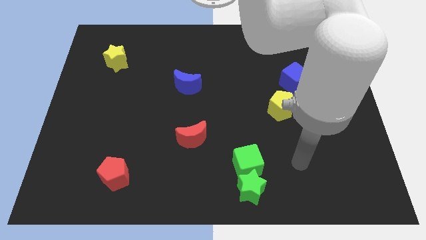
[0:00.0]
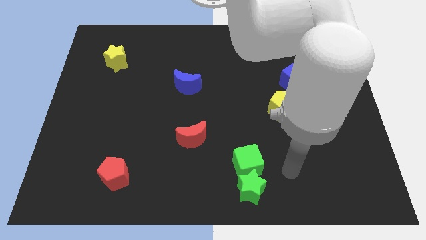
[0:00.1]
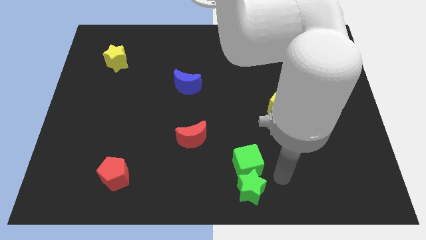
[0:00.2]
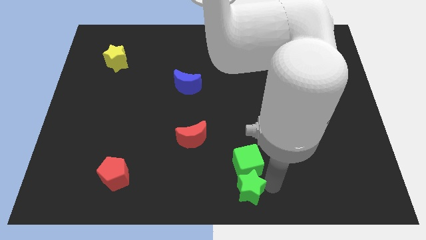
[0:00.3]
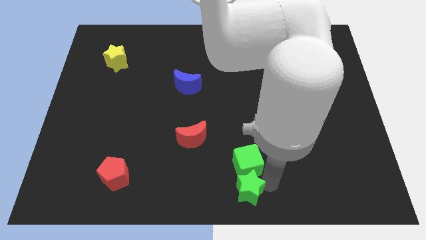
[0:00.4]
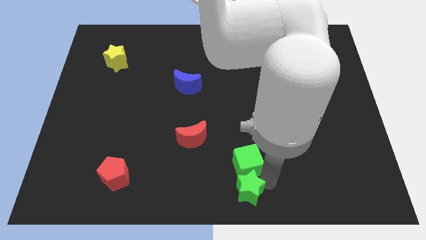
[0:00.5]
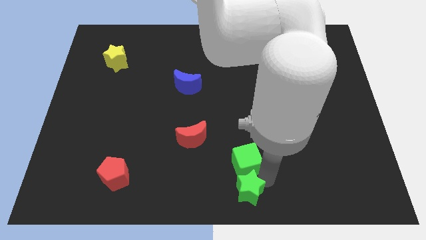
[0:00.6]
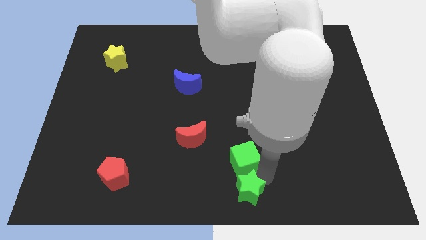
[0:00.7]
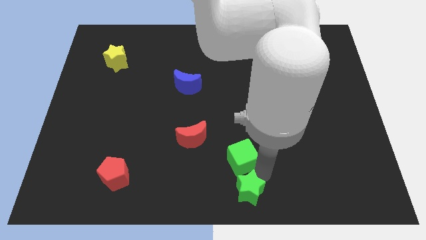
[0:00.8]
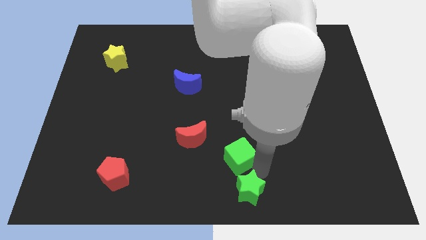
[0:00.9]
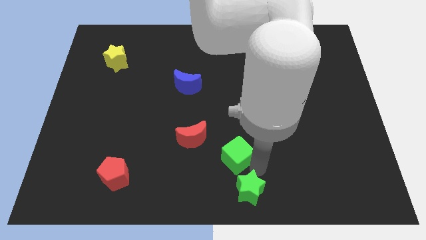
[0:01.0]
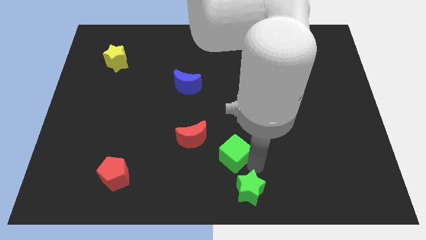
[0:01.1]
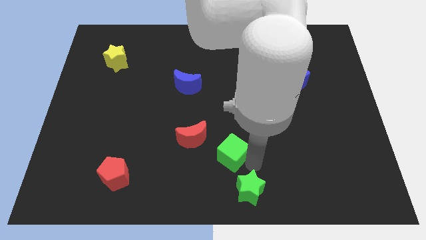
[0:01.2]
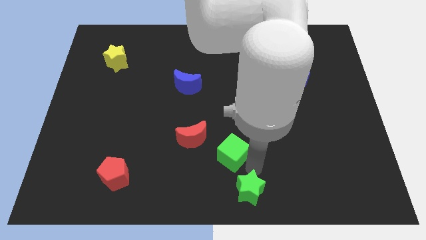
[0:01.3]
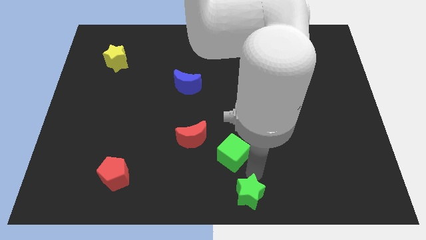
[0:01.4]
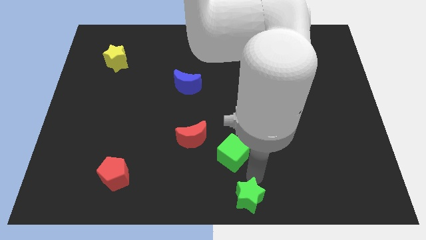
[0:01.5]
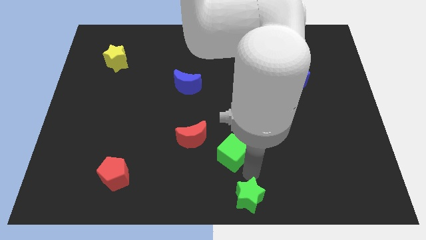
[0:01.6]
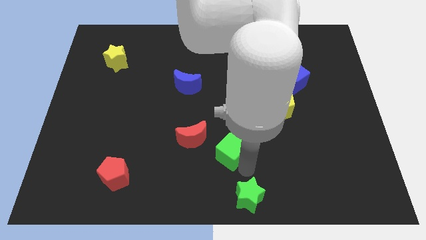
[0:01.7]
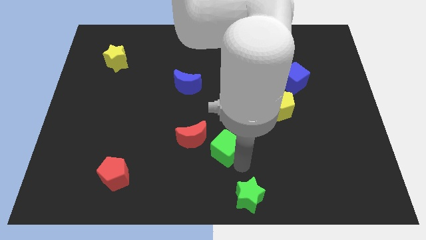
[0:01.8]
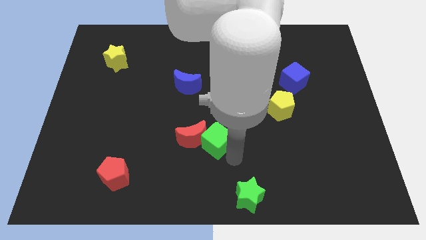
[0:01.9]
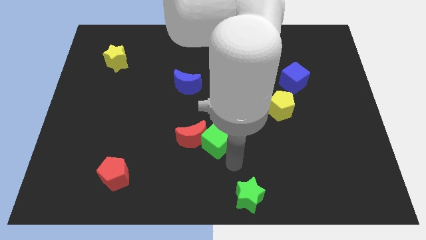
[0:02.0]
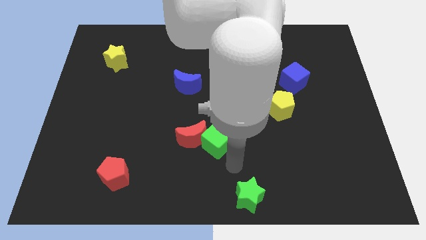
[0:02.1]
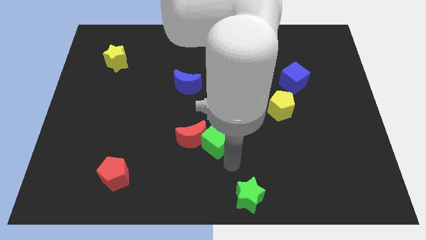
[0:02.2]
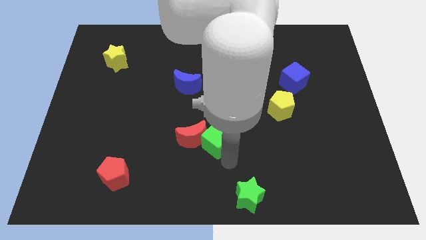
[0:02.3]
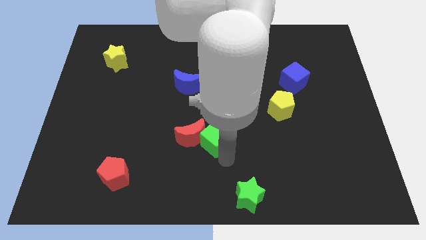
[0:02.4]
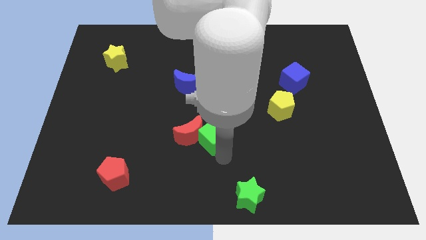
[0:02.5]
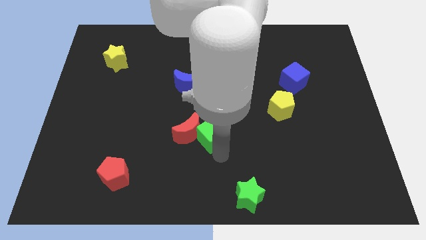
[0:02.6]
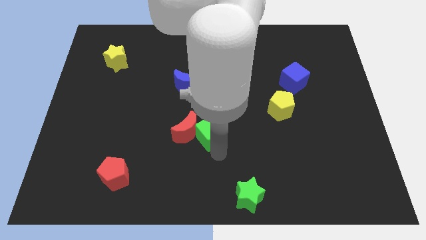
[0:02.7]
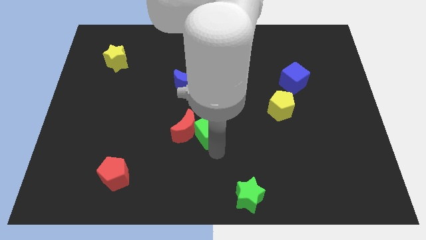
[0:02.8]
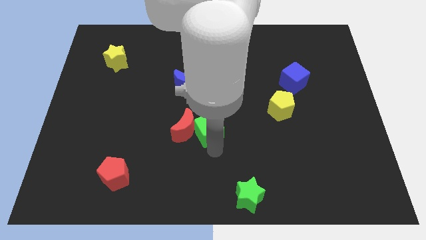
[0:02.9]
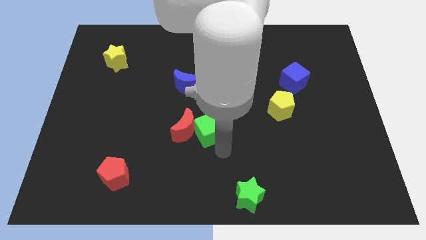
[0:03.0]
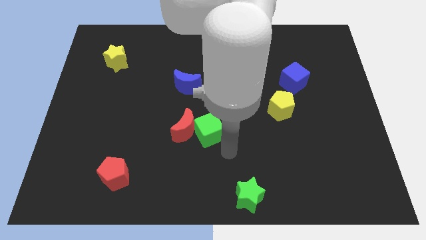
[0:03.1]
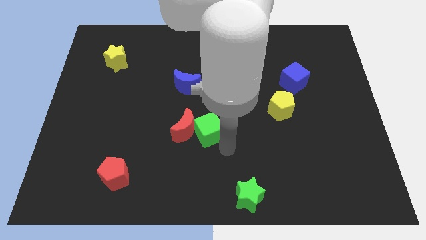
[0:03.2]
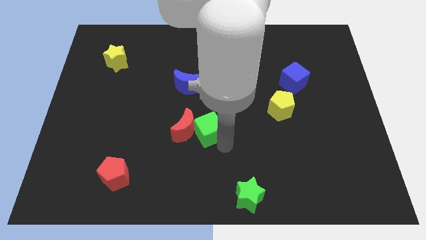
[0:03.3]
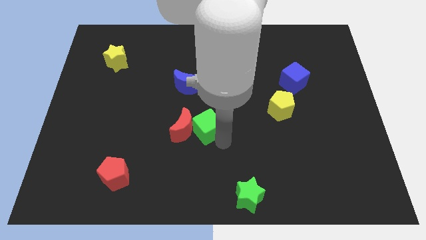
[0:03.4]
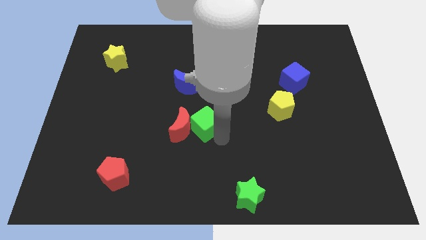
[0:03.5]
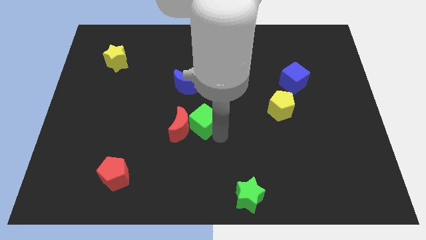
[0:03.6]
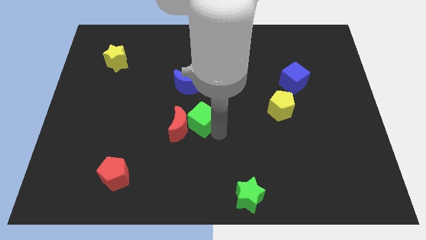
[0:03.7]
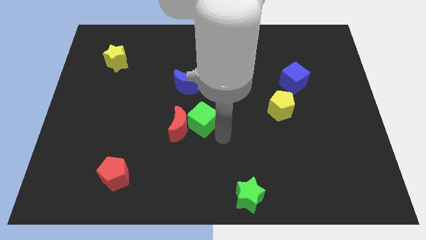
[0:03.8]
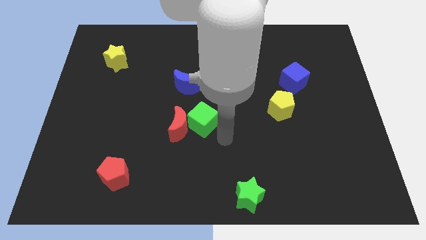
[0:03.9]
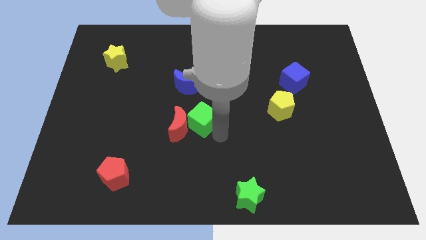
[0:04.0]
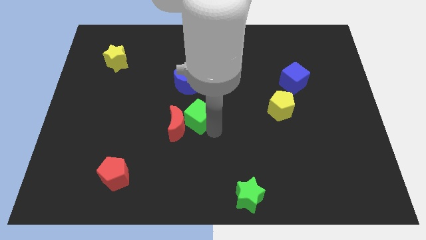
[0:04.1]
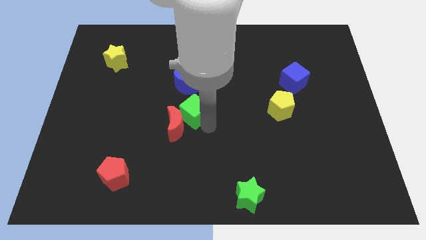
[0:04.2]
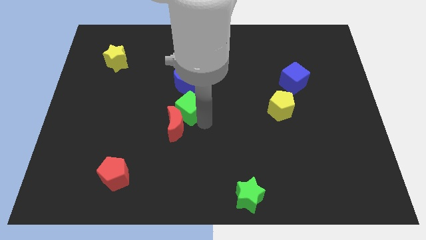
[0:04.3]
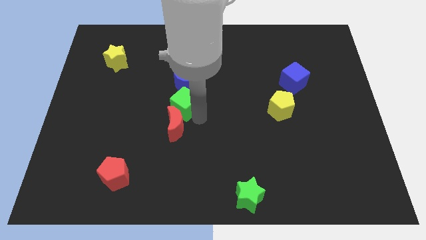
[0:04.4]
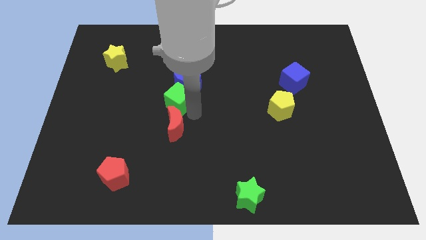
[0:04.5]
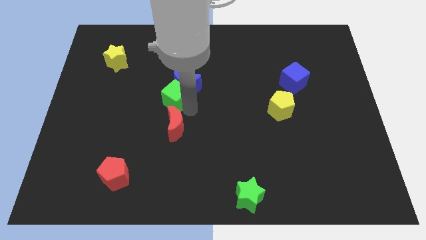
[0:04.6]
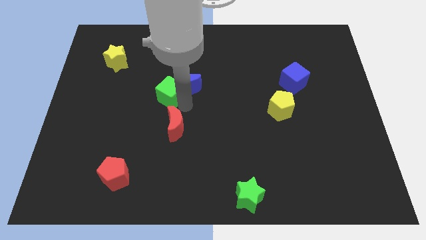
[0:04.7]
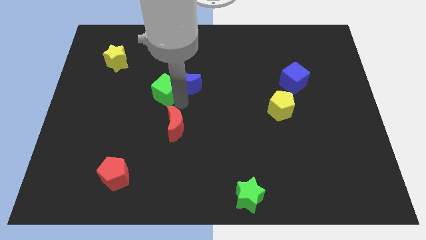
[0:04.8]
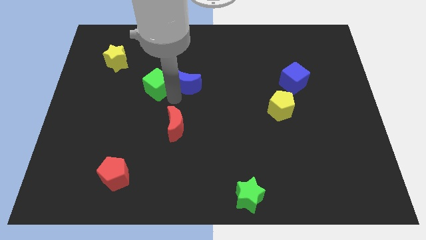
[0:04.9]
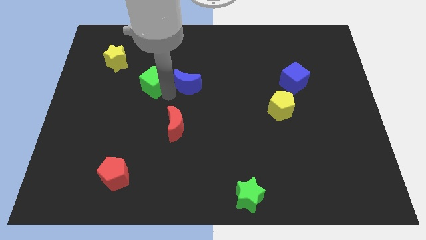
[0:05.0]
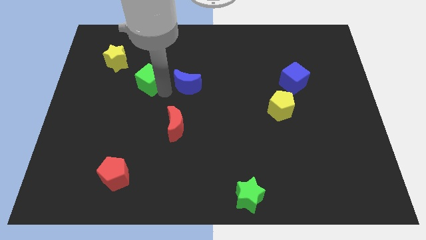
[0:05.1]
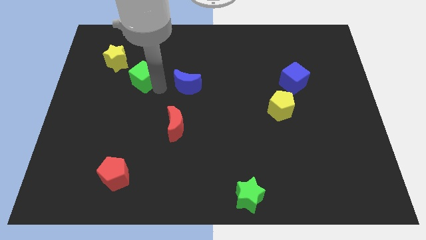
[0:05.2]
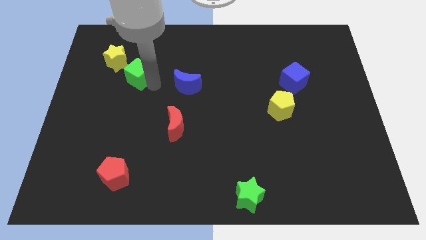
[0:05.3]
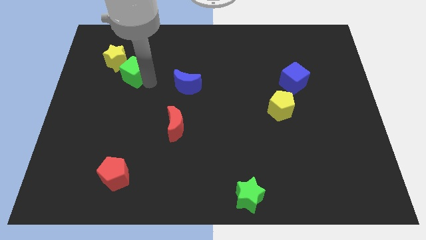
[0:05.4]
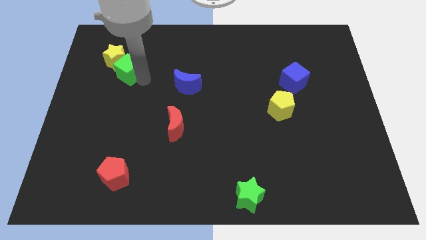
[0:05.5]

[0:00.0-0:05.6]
slide the green cube to the yellow star

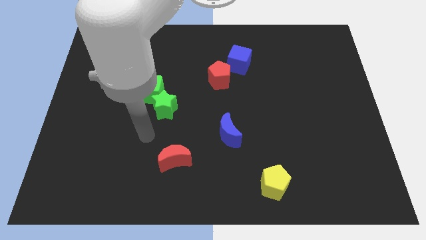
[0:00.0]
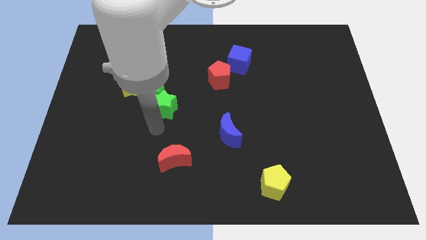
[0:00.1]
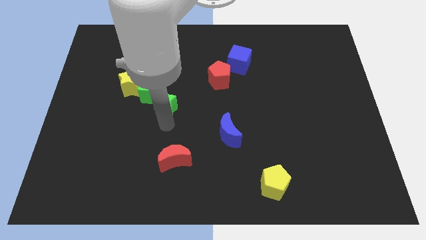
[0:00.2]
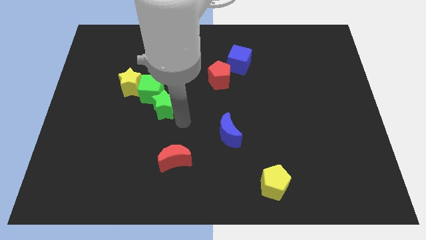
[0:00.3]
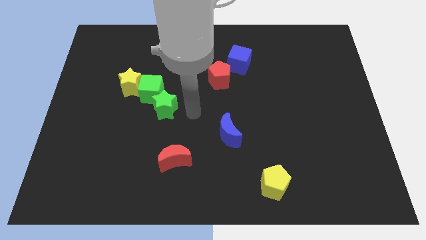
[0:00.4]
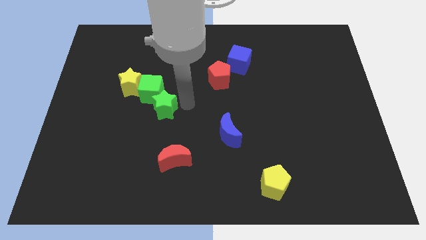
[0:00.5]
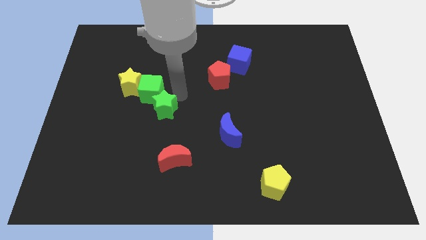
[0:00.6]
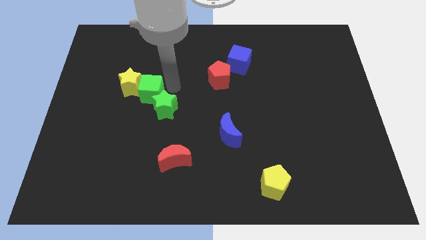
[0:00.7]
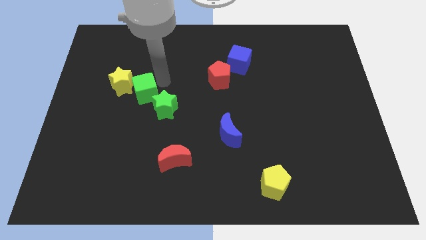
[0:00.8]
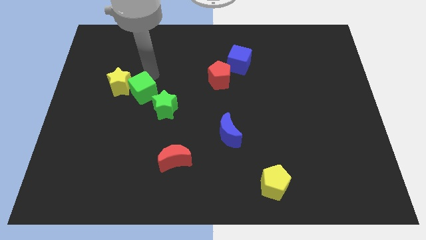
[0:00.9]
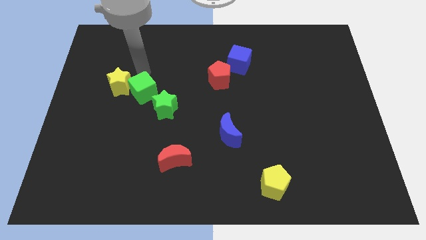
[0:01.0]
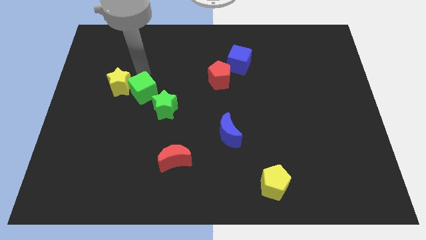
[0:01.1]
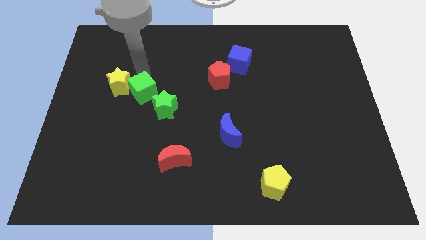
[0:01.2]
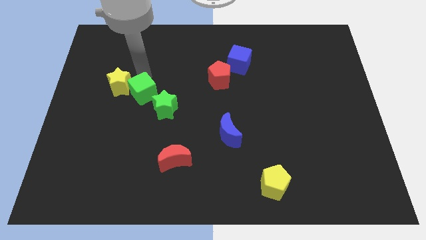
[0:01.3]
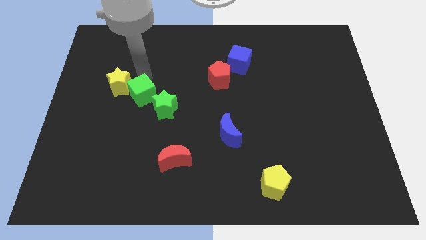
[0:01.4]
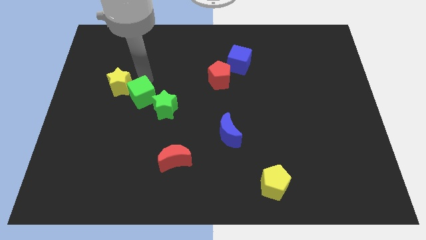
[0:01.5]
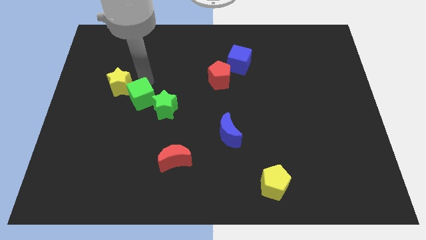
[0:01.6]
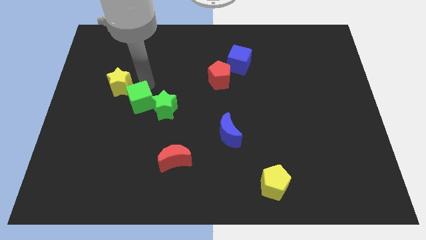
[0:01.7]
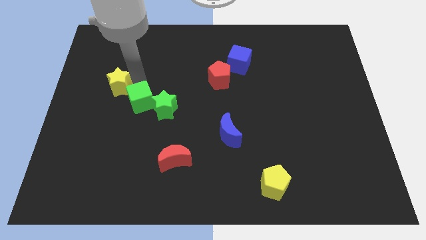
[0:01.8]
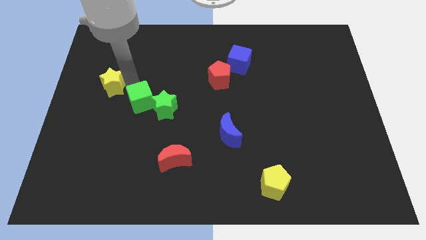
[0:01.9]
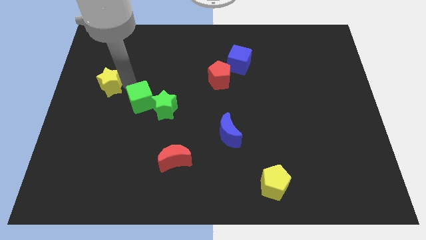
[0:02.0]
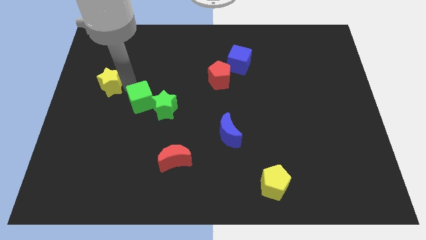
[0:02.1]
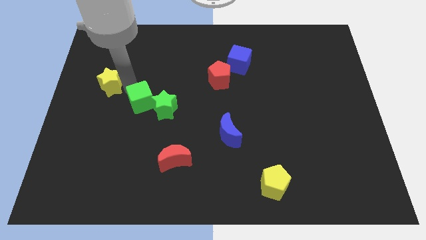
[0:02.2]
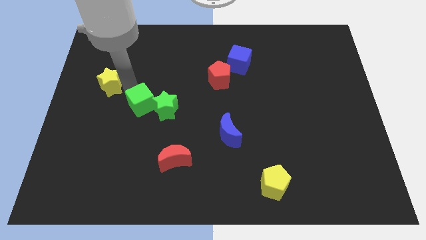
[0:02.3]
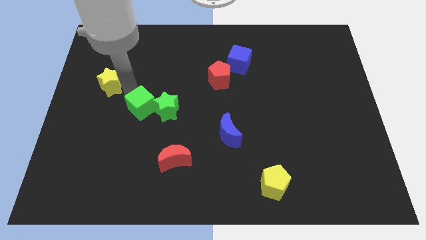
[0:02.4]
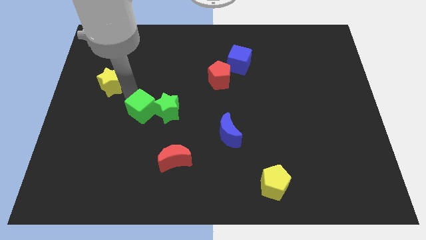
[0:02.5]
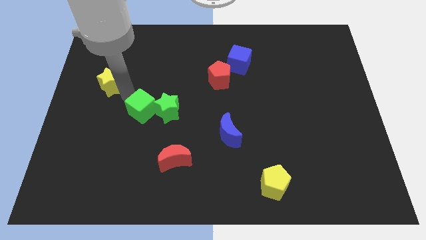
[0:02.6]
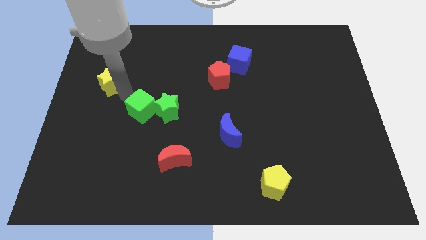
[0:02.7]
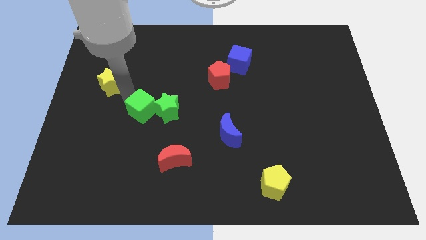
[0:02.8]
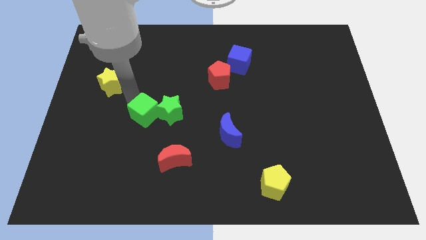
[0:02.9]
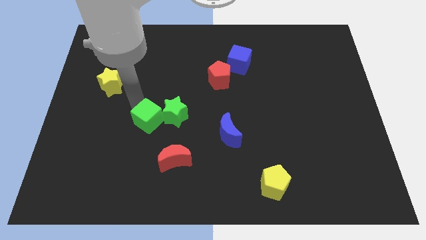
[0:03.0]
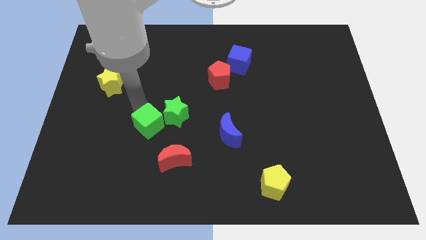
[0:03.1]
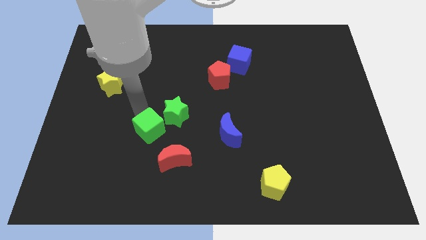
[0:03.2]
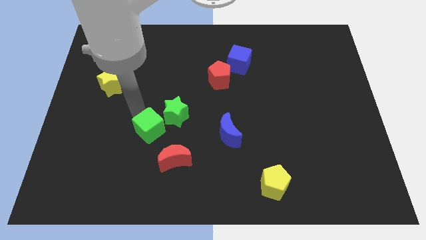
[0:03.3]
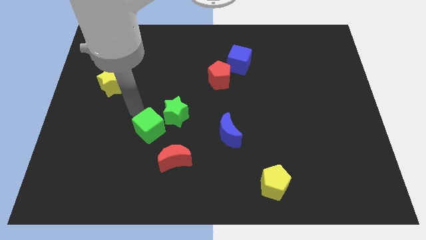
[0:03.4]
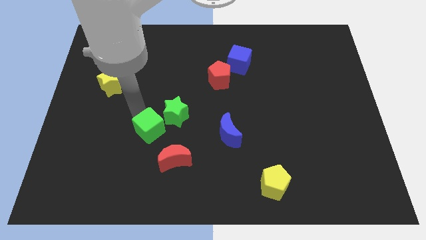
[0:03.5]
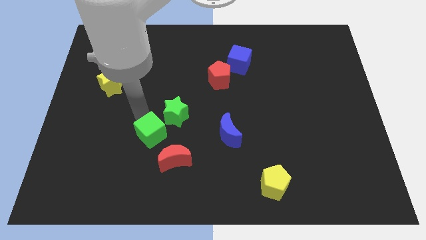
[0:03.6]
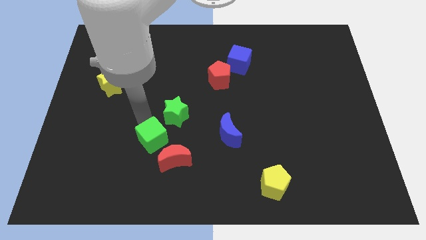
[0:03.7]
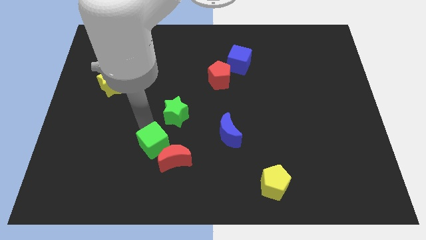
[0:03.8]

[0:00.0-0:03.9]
slide the green cube close to the red moon
